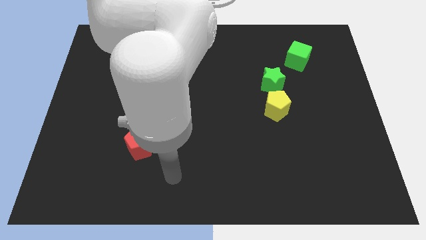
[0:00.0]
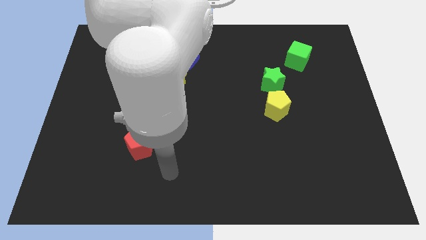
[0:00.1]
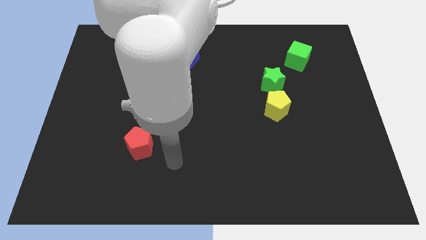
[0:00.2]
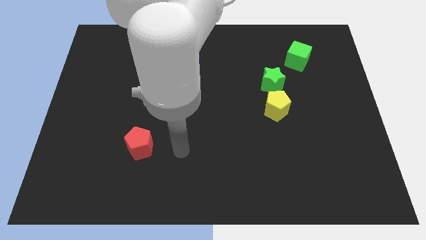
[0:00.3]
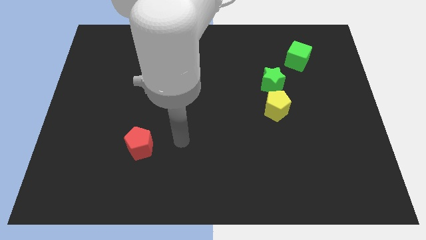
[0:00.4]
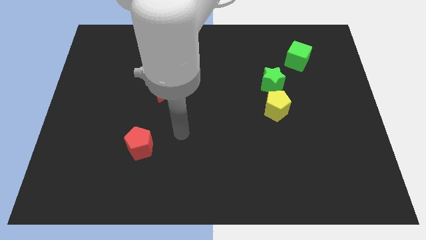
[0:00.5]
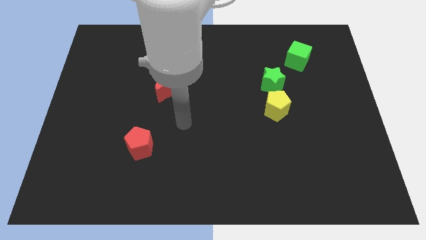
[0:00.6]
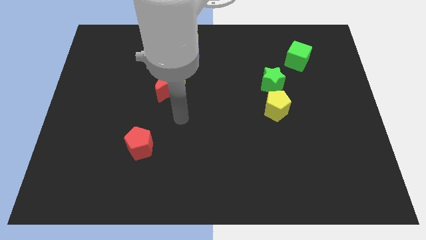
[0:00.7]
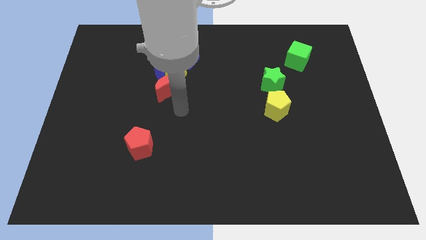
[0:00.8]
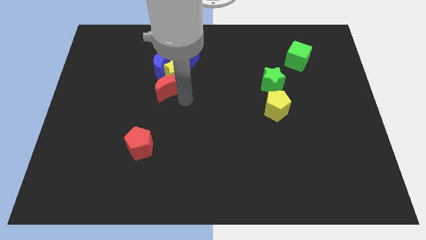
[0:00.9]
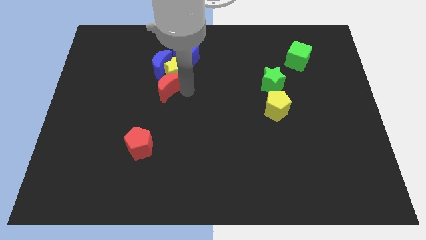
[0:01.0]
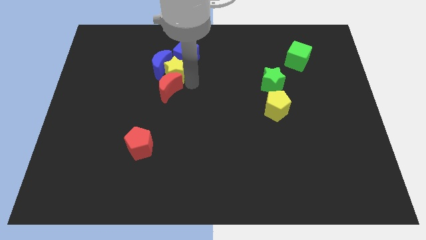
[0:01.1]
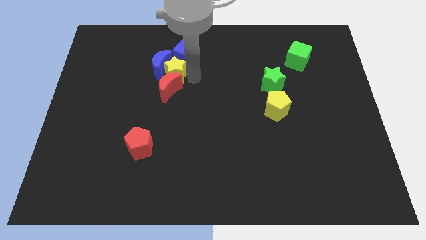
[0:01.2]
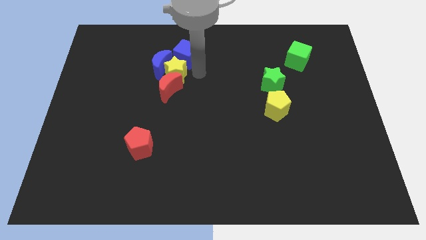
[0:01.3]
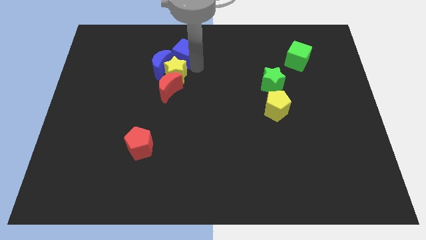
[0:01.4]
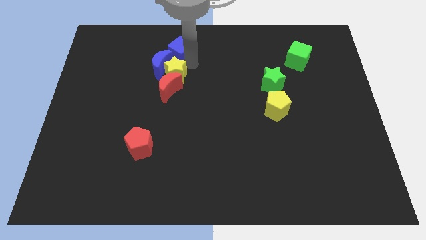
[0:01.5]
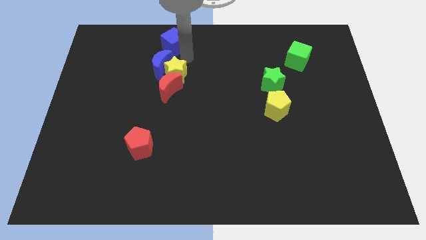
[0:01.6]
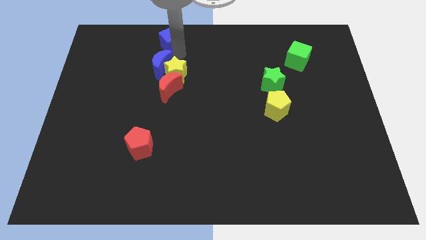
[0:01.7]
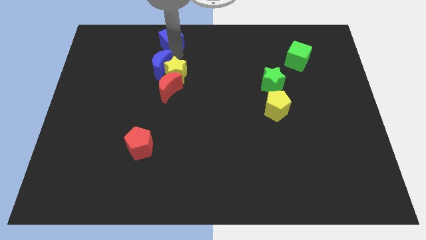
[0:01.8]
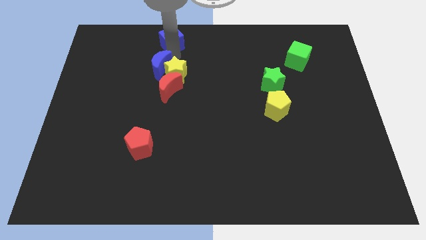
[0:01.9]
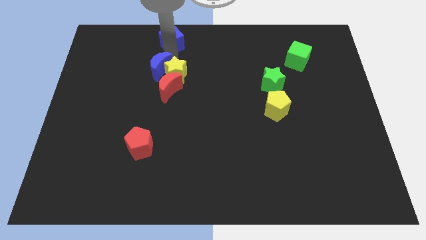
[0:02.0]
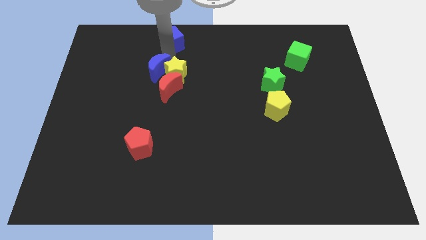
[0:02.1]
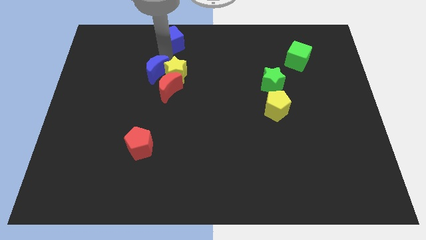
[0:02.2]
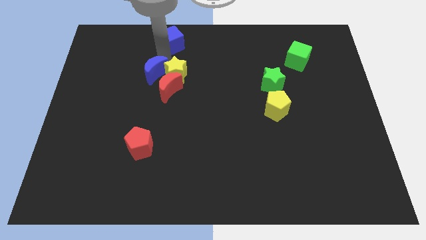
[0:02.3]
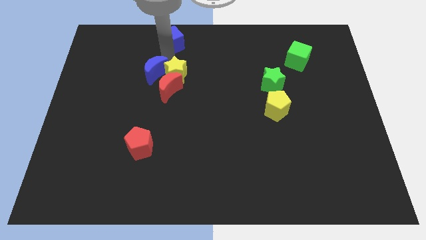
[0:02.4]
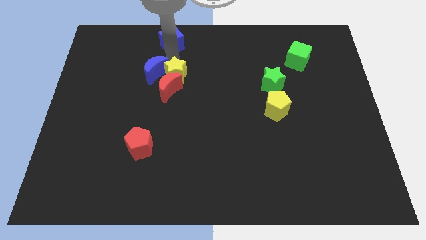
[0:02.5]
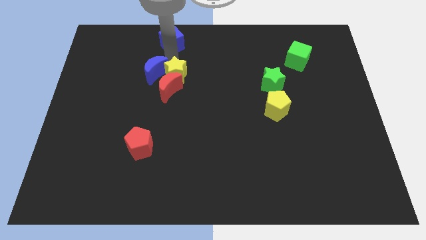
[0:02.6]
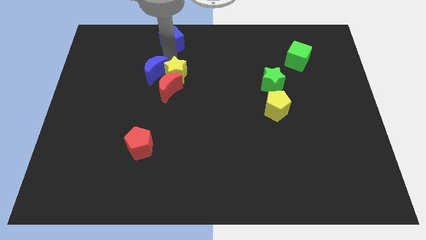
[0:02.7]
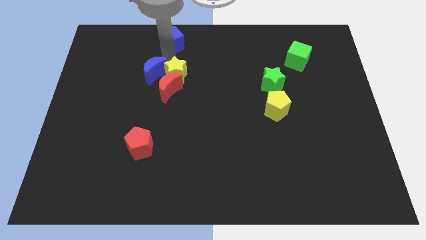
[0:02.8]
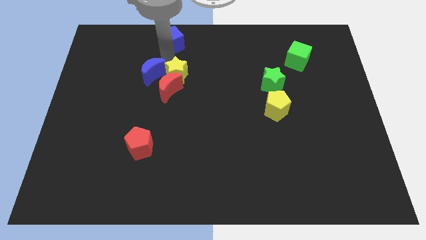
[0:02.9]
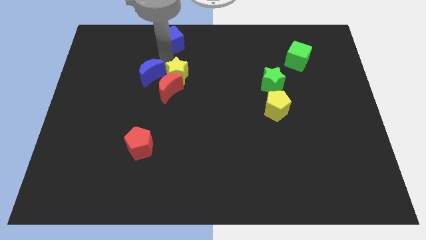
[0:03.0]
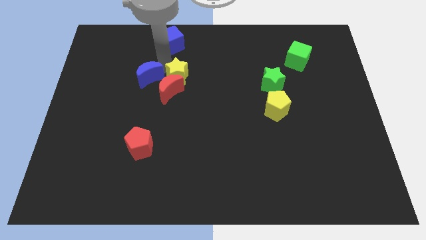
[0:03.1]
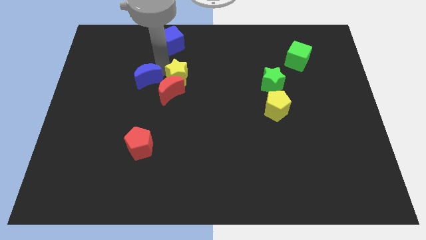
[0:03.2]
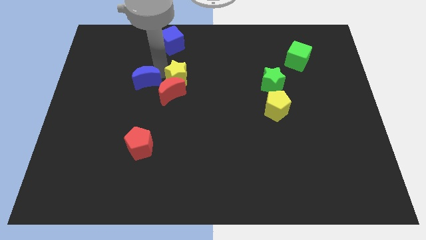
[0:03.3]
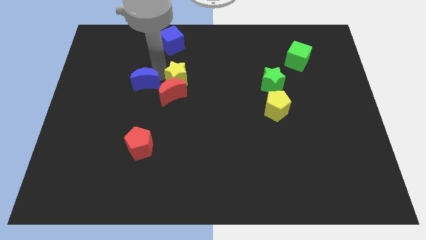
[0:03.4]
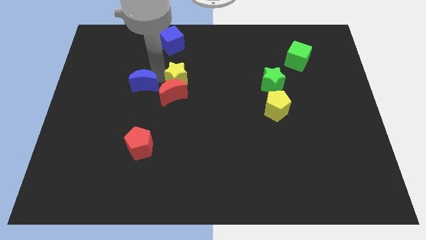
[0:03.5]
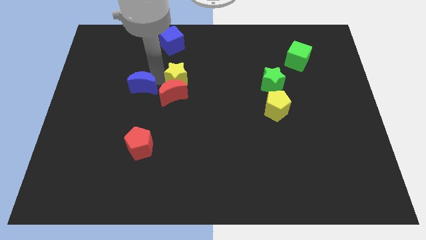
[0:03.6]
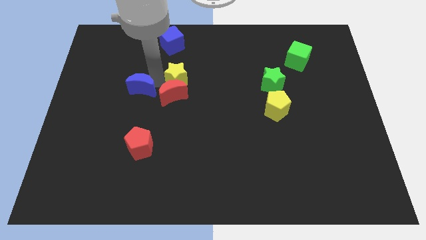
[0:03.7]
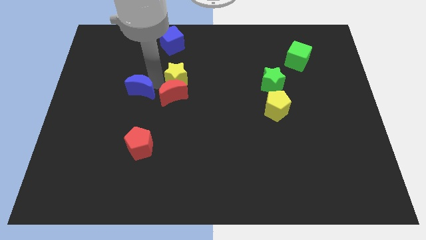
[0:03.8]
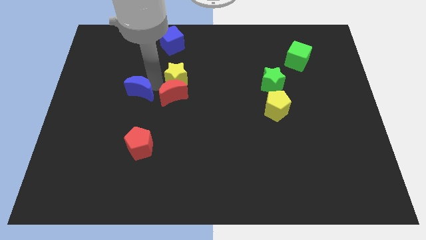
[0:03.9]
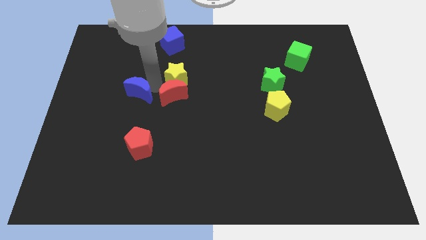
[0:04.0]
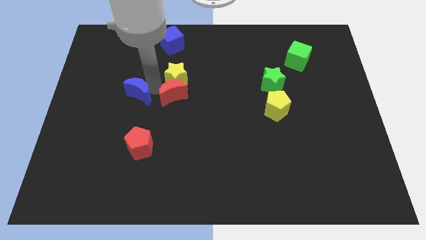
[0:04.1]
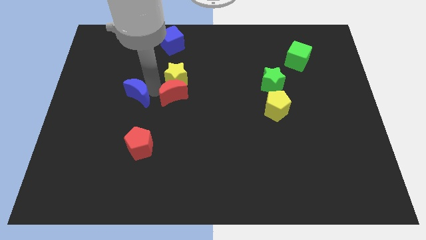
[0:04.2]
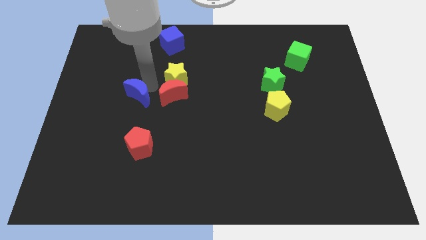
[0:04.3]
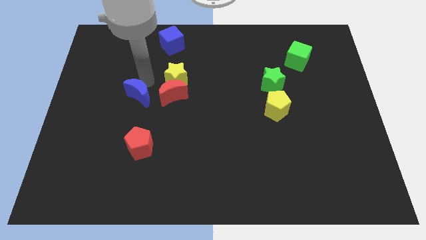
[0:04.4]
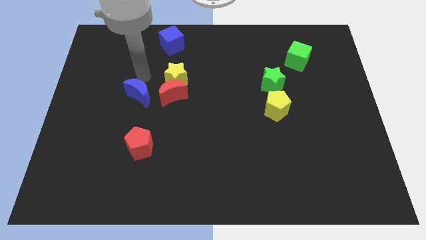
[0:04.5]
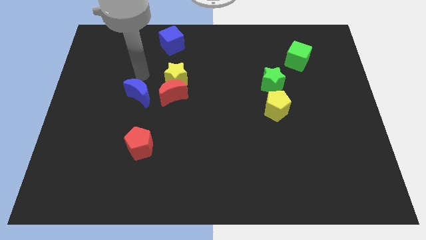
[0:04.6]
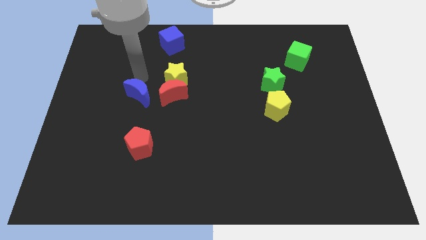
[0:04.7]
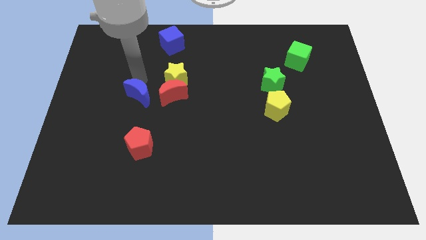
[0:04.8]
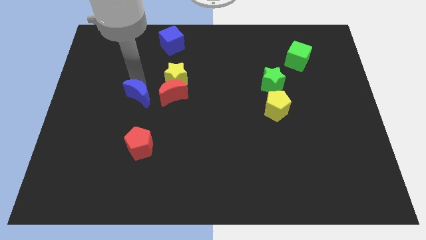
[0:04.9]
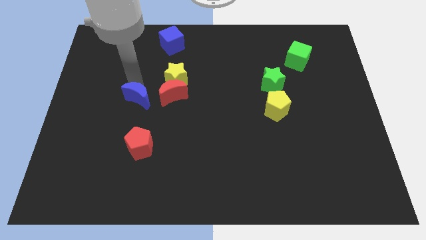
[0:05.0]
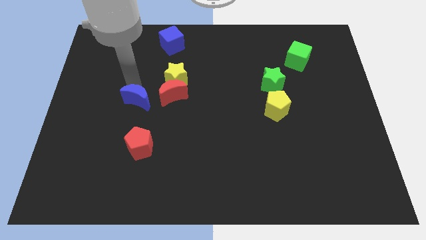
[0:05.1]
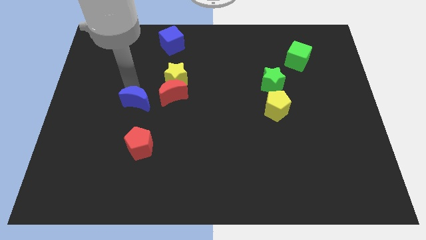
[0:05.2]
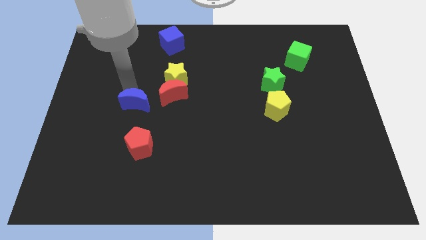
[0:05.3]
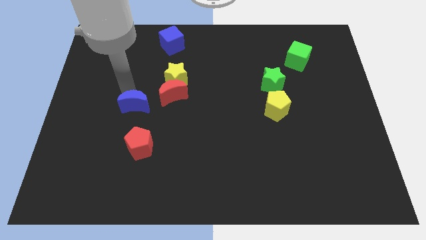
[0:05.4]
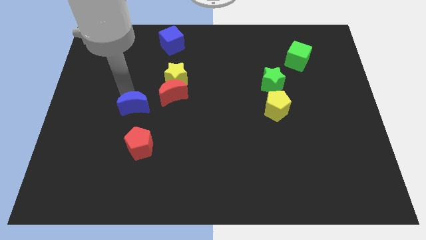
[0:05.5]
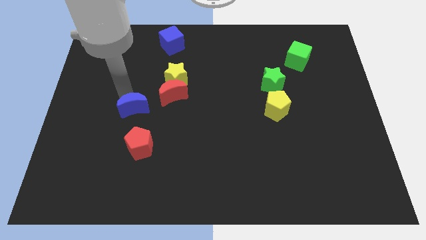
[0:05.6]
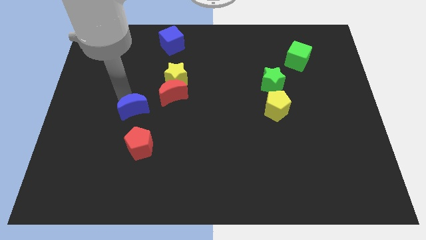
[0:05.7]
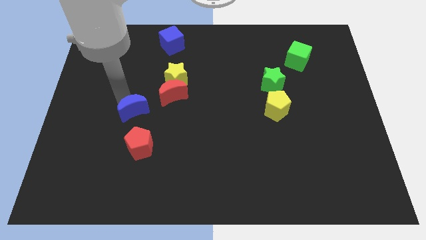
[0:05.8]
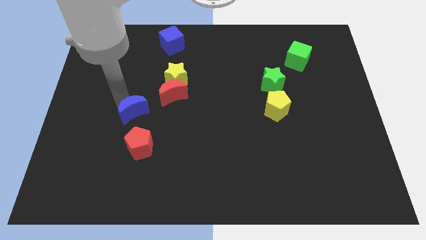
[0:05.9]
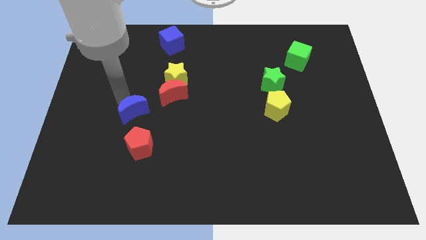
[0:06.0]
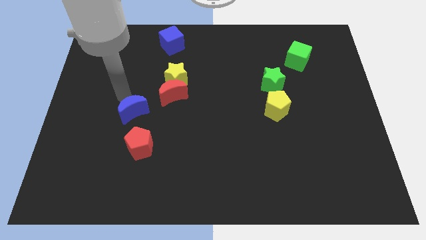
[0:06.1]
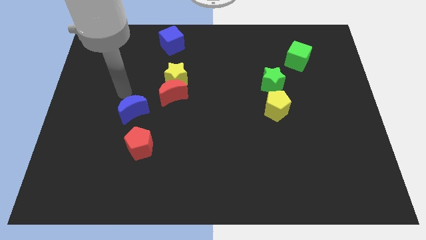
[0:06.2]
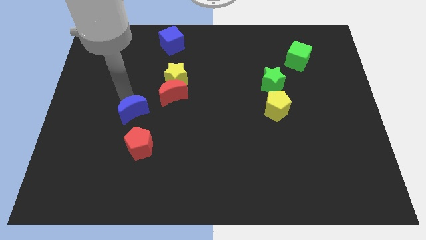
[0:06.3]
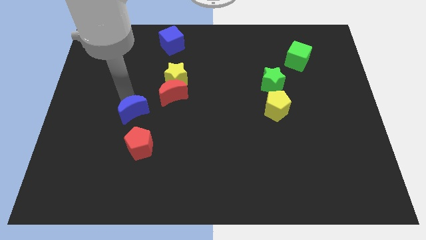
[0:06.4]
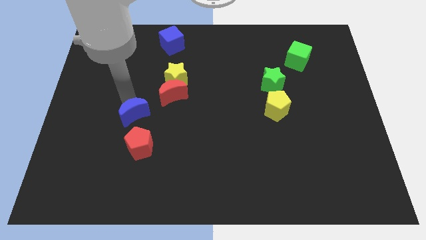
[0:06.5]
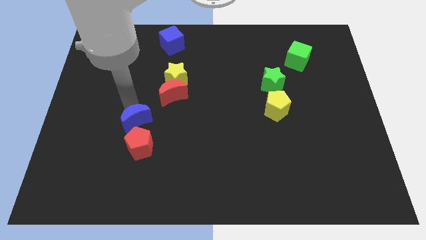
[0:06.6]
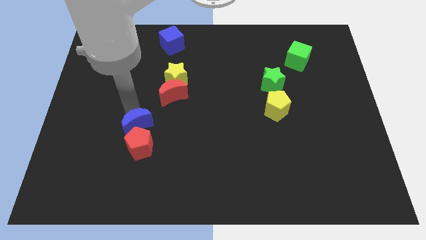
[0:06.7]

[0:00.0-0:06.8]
push the blue moon next to the red pentagon

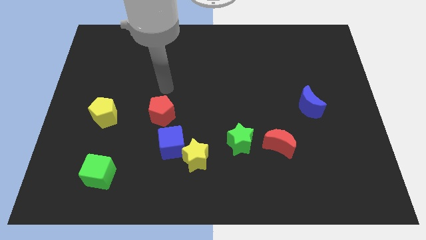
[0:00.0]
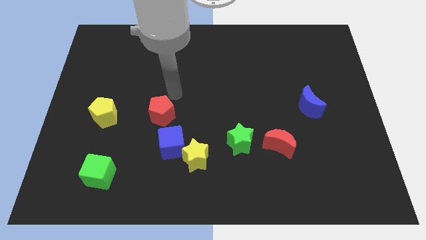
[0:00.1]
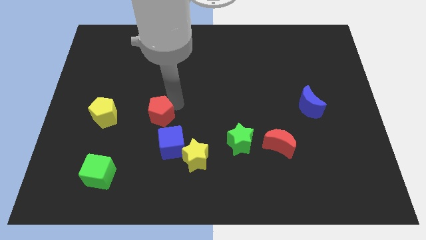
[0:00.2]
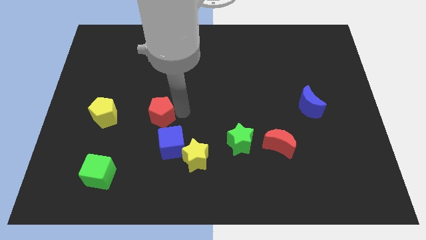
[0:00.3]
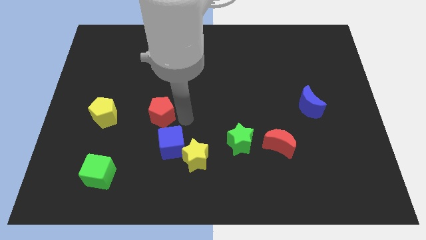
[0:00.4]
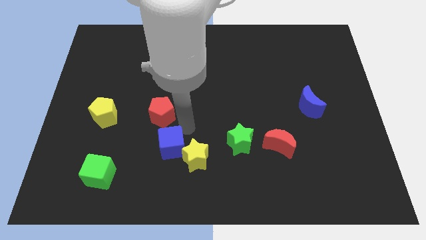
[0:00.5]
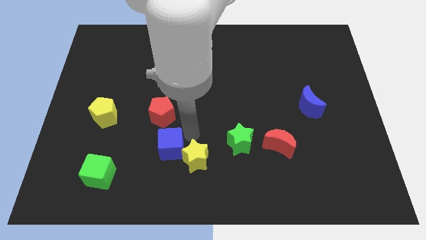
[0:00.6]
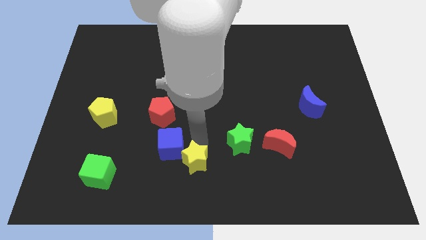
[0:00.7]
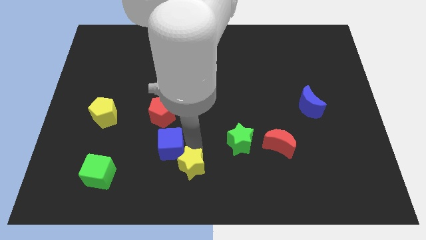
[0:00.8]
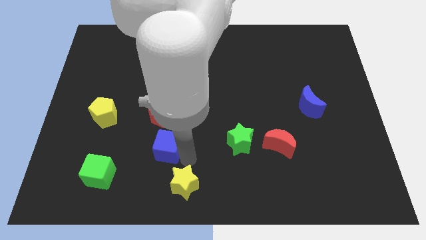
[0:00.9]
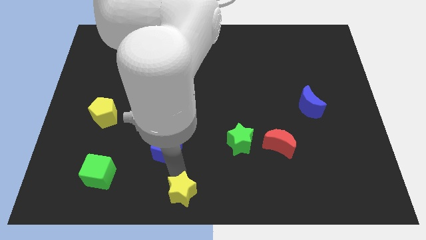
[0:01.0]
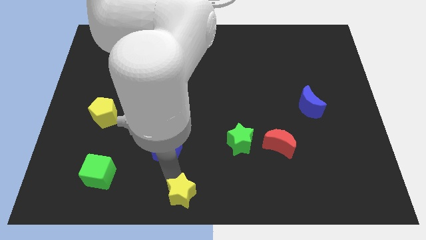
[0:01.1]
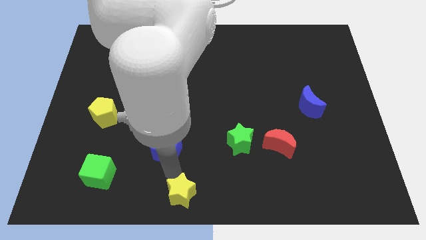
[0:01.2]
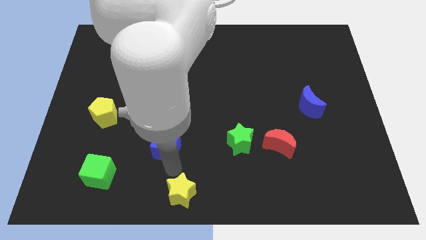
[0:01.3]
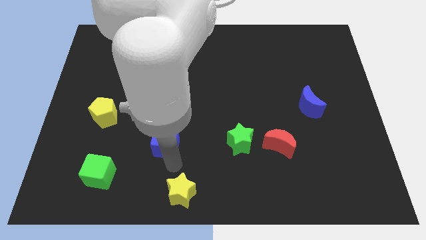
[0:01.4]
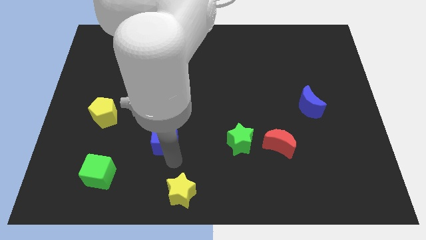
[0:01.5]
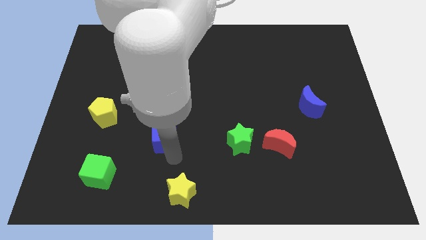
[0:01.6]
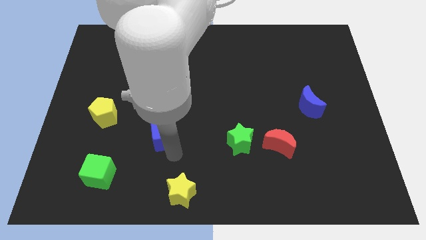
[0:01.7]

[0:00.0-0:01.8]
put the blue cube close to the red pentagon
